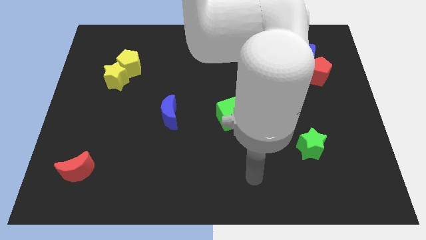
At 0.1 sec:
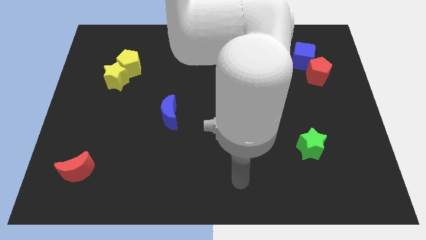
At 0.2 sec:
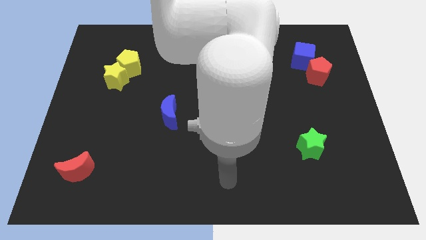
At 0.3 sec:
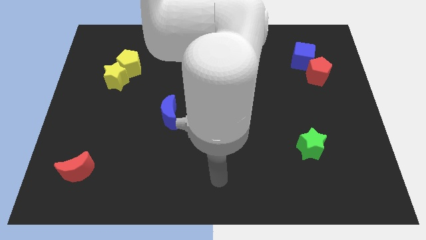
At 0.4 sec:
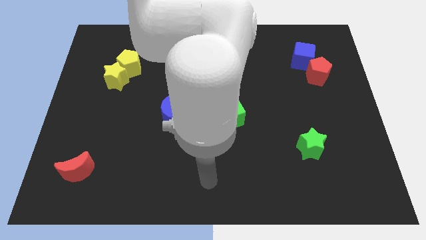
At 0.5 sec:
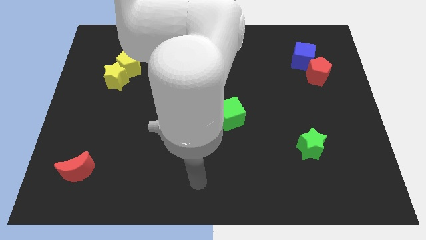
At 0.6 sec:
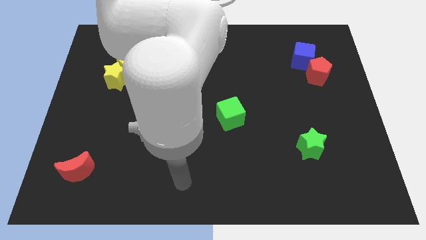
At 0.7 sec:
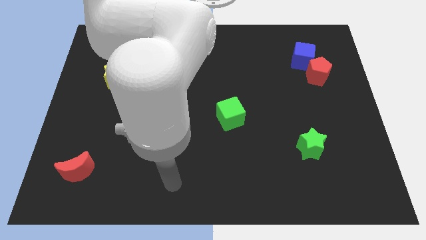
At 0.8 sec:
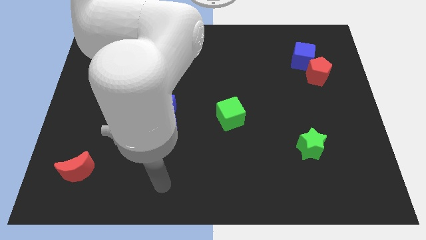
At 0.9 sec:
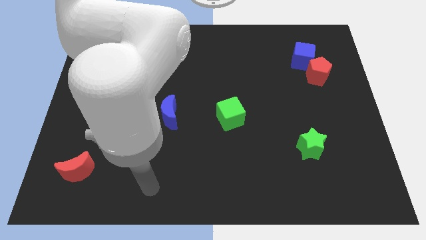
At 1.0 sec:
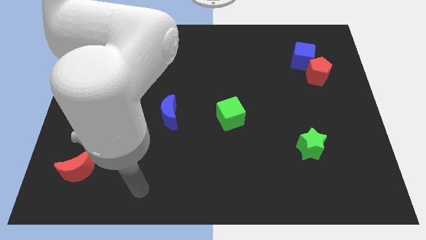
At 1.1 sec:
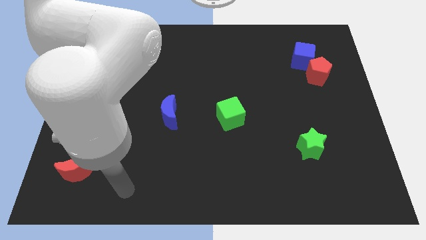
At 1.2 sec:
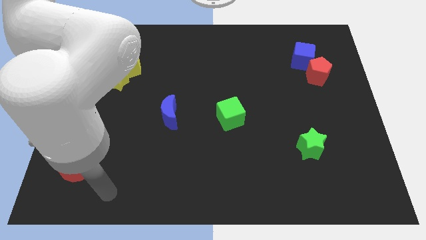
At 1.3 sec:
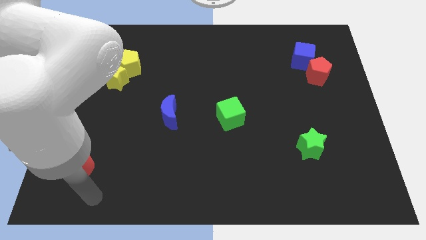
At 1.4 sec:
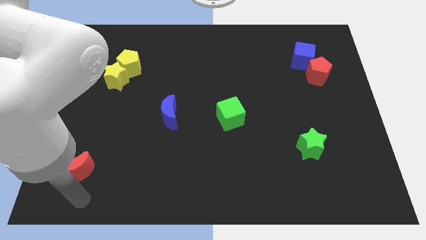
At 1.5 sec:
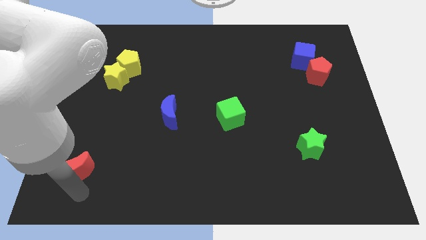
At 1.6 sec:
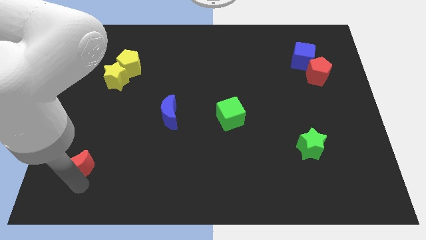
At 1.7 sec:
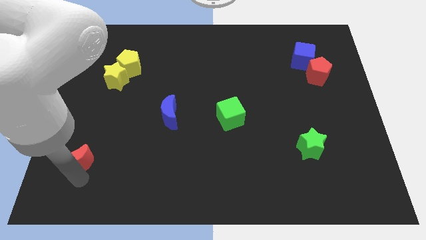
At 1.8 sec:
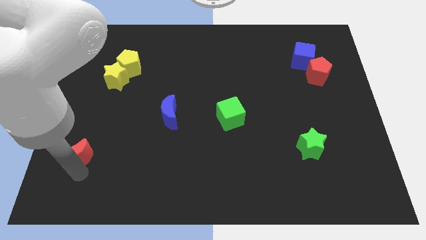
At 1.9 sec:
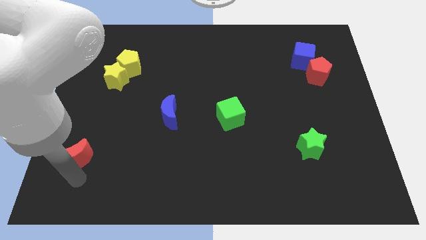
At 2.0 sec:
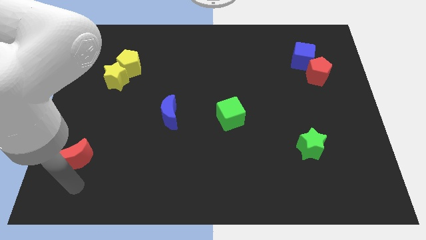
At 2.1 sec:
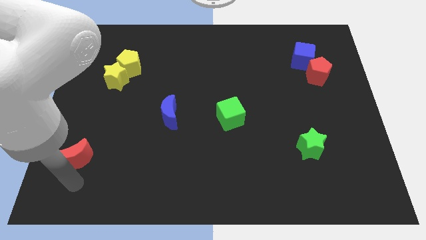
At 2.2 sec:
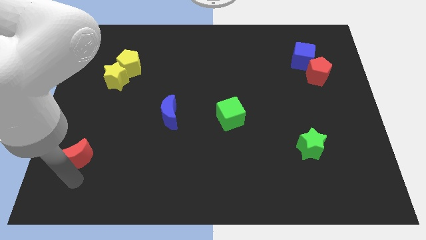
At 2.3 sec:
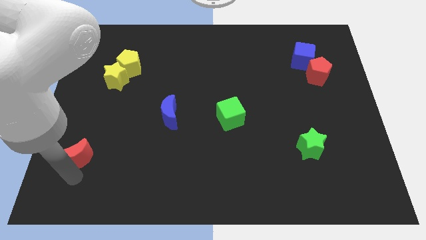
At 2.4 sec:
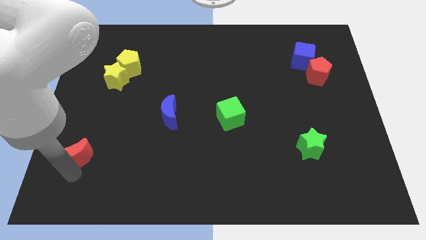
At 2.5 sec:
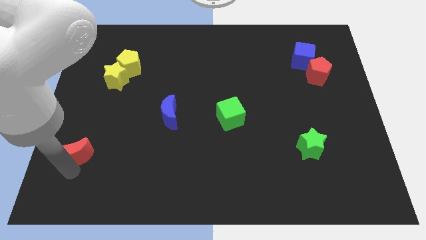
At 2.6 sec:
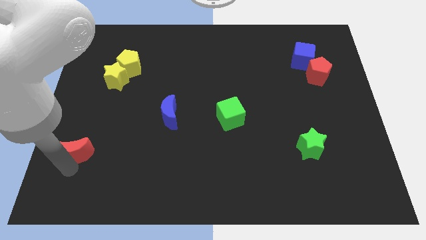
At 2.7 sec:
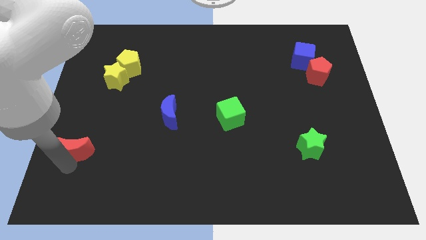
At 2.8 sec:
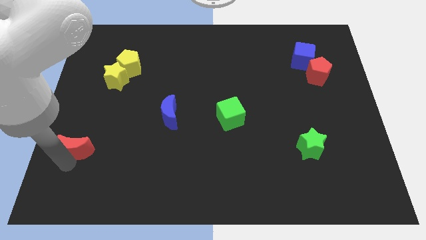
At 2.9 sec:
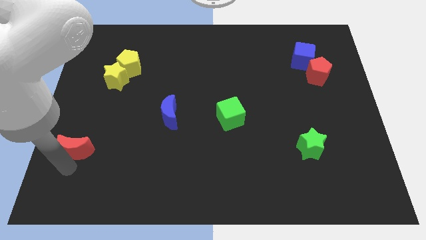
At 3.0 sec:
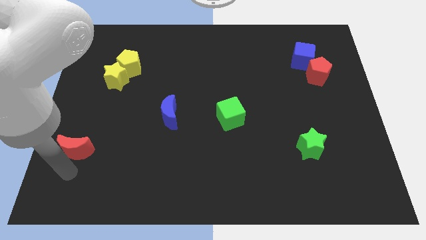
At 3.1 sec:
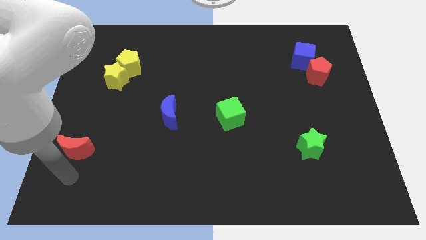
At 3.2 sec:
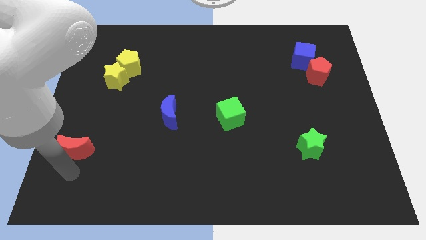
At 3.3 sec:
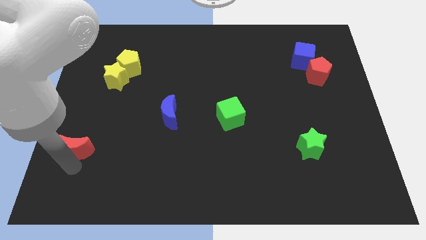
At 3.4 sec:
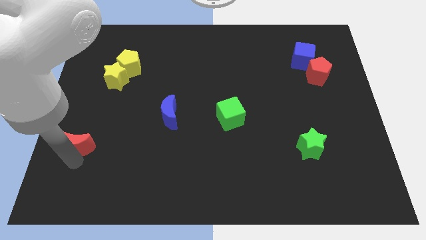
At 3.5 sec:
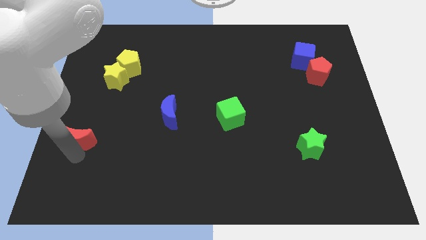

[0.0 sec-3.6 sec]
push the red moon slightly upwards

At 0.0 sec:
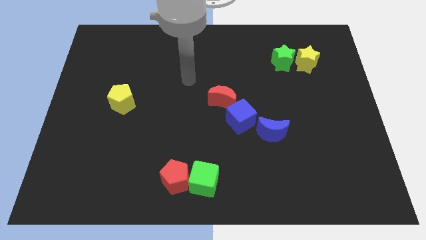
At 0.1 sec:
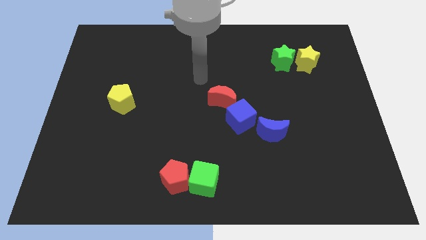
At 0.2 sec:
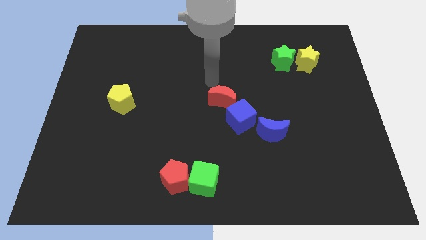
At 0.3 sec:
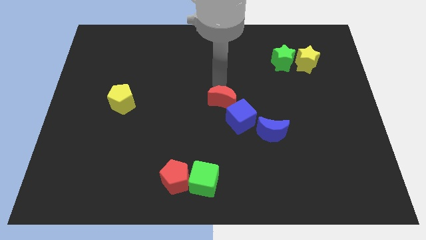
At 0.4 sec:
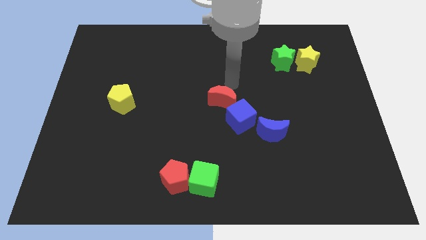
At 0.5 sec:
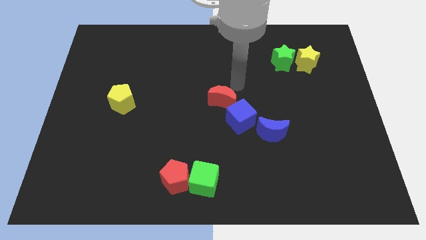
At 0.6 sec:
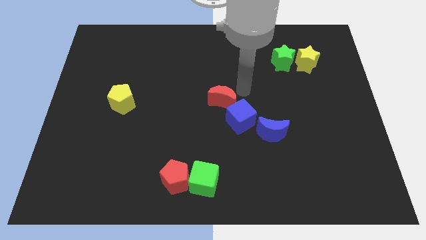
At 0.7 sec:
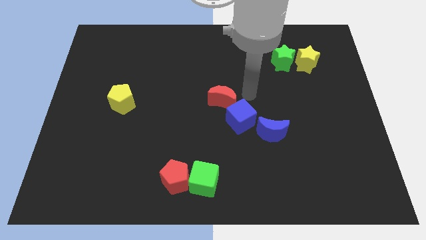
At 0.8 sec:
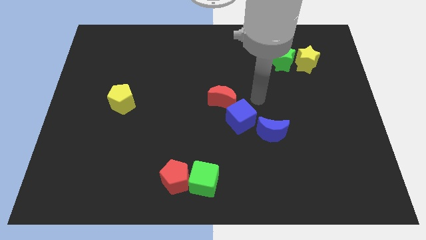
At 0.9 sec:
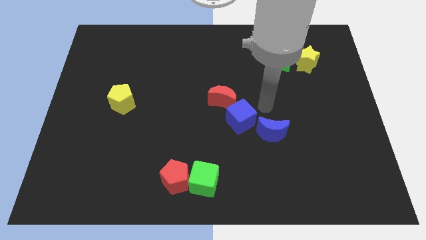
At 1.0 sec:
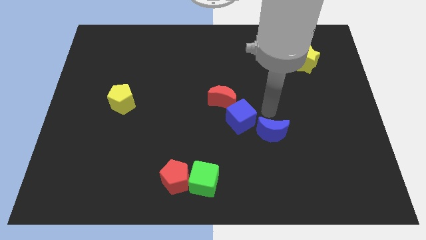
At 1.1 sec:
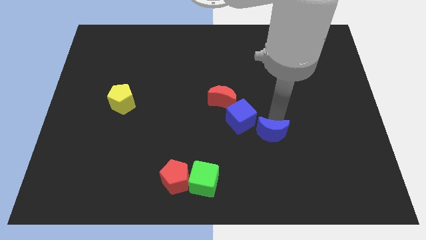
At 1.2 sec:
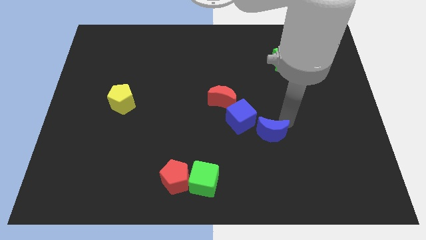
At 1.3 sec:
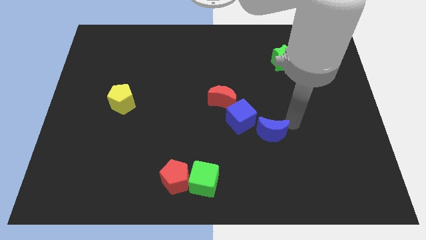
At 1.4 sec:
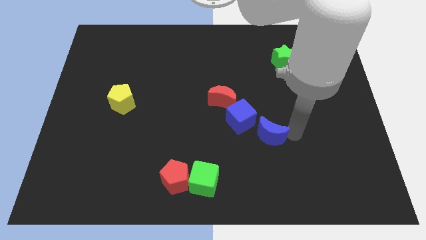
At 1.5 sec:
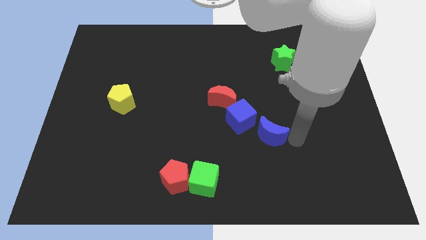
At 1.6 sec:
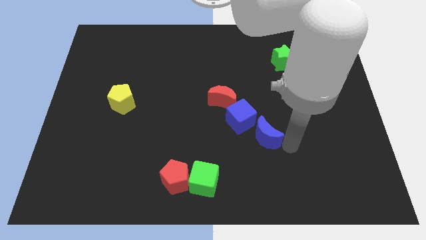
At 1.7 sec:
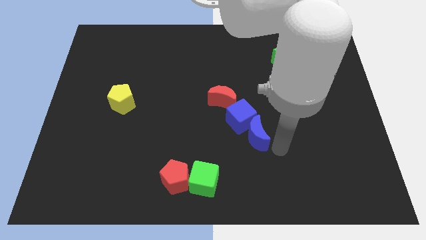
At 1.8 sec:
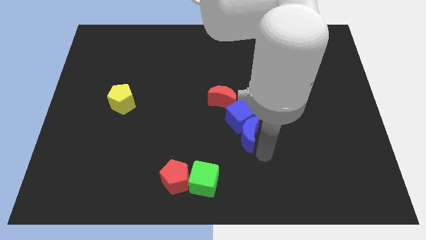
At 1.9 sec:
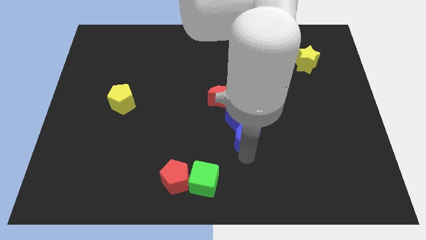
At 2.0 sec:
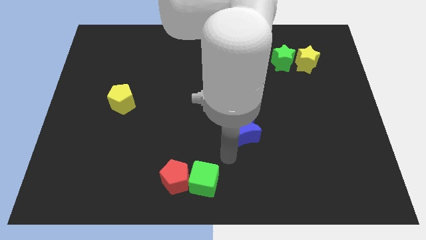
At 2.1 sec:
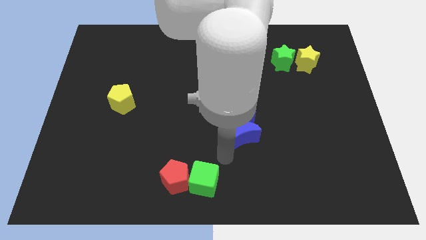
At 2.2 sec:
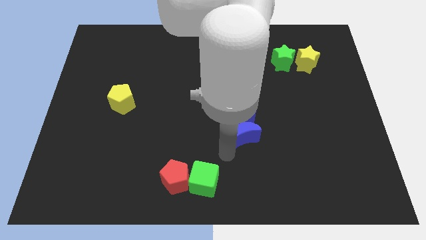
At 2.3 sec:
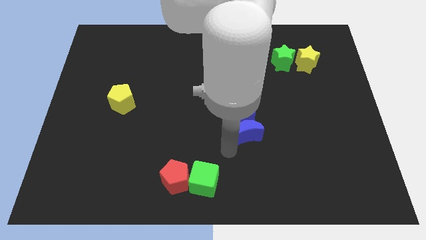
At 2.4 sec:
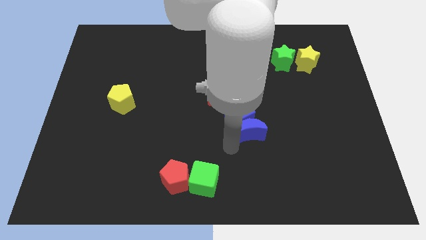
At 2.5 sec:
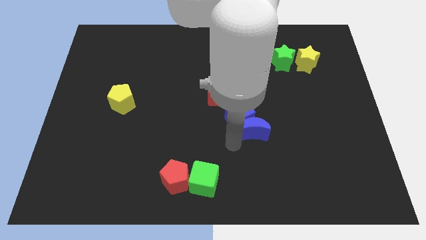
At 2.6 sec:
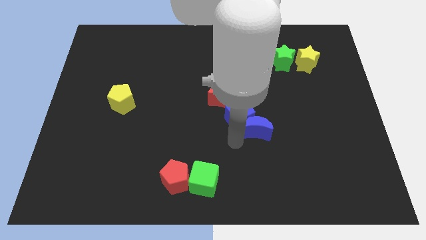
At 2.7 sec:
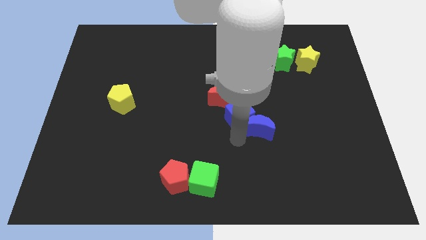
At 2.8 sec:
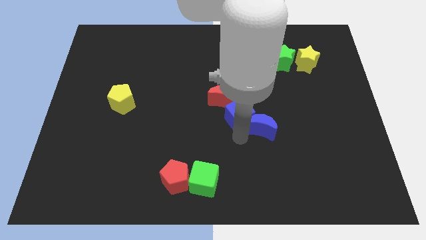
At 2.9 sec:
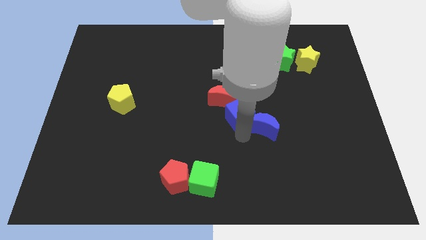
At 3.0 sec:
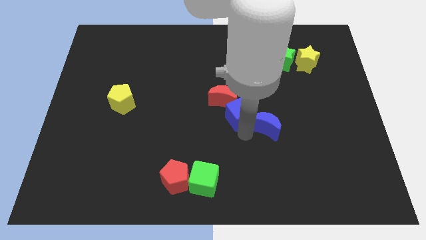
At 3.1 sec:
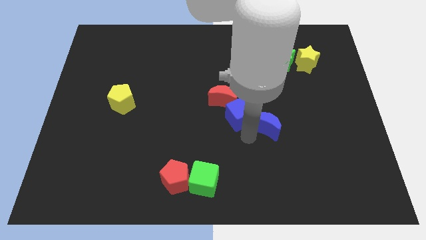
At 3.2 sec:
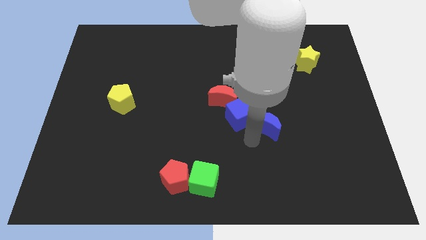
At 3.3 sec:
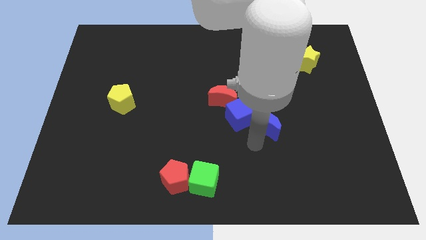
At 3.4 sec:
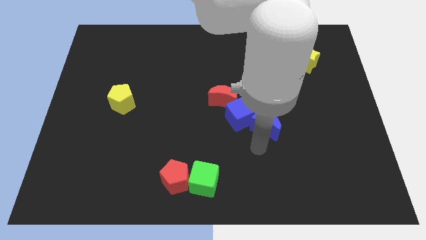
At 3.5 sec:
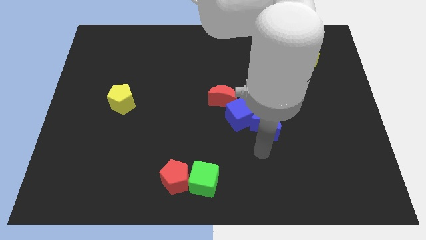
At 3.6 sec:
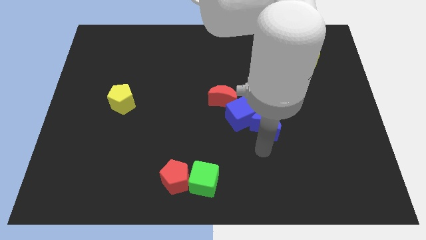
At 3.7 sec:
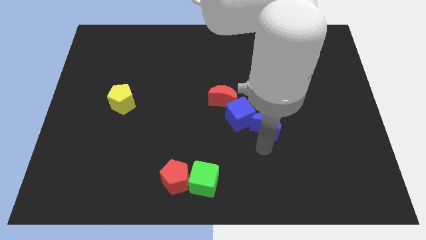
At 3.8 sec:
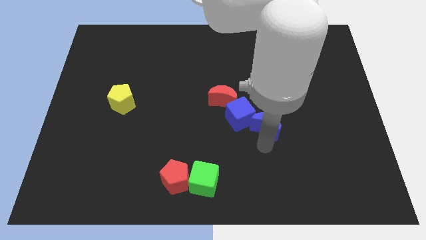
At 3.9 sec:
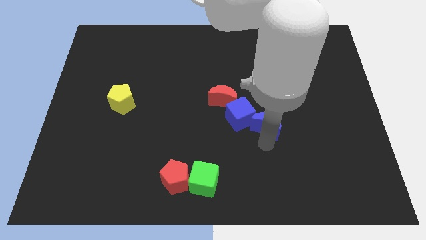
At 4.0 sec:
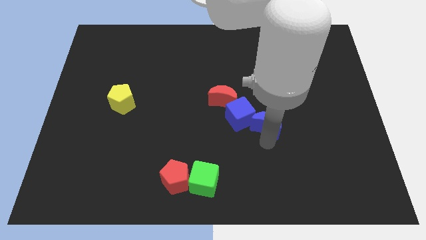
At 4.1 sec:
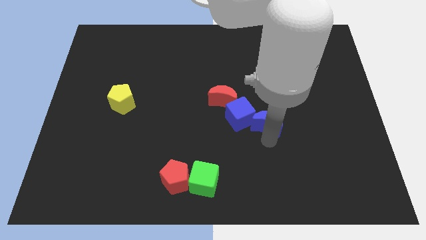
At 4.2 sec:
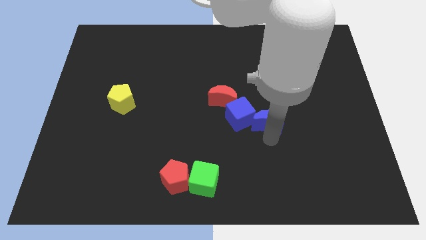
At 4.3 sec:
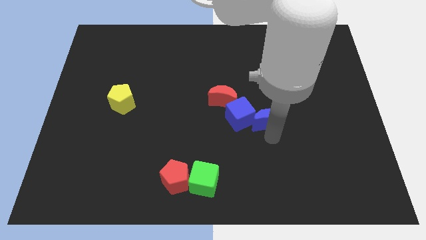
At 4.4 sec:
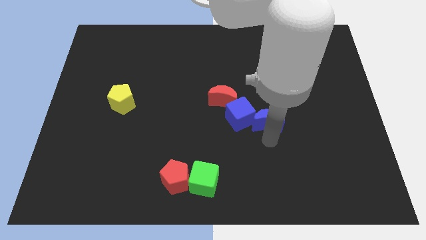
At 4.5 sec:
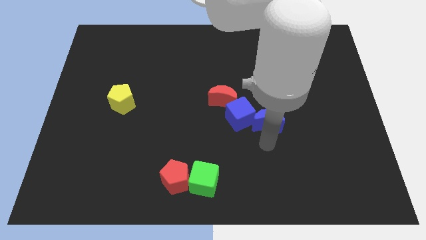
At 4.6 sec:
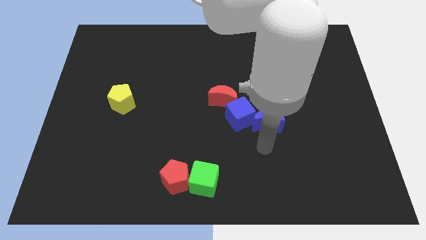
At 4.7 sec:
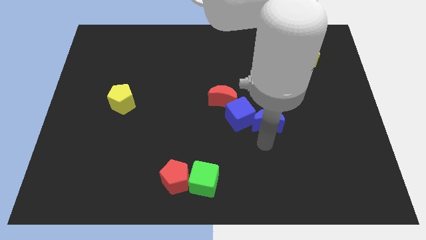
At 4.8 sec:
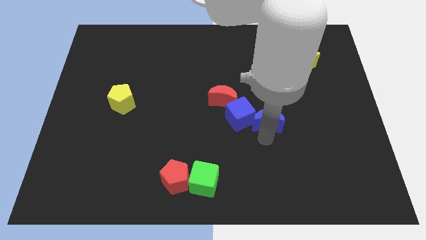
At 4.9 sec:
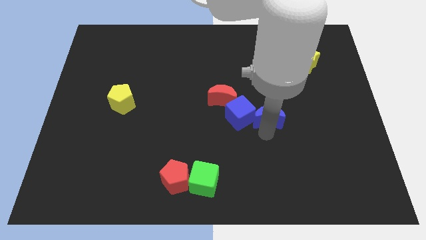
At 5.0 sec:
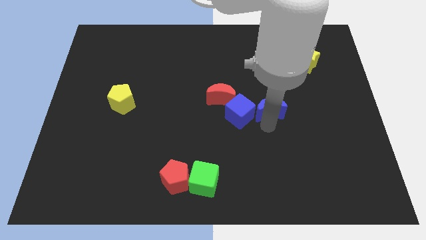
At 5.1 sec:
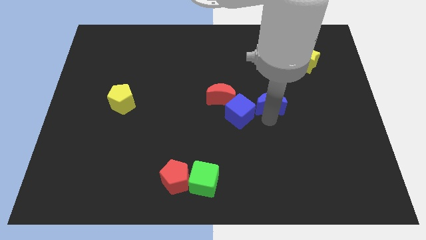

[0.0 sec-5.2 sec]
slide the blue moon upwards a little
